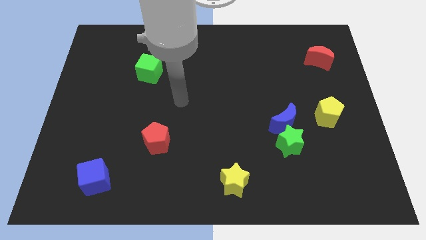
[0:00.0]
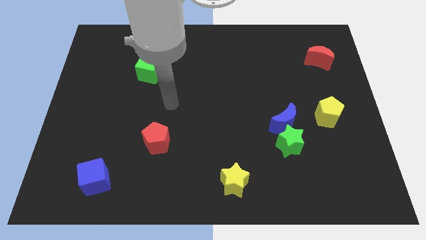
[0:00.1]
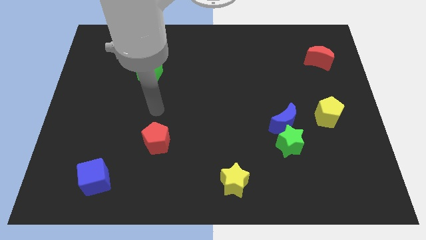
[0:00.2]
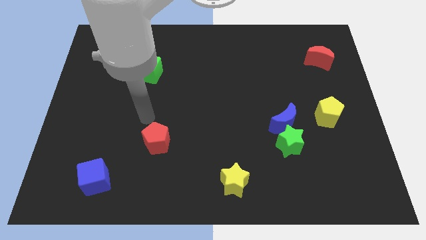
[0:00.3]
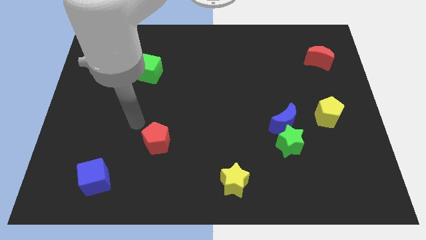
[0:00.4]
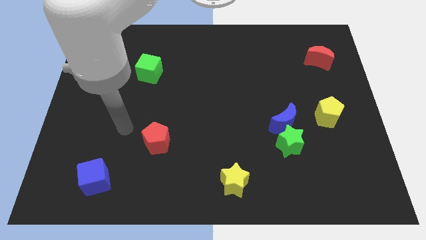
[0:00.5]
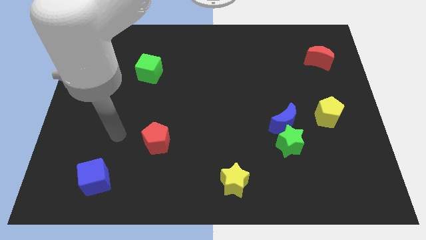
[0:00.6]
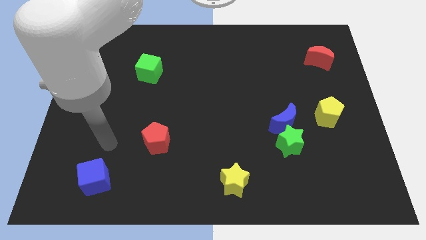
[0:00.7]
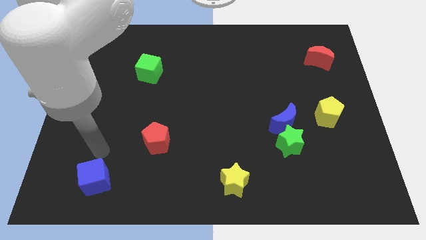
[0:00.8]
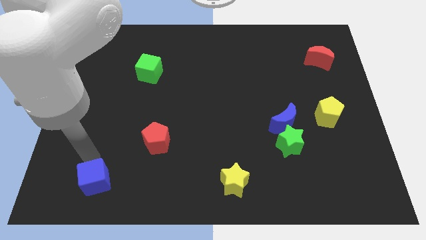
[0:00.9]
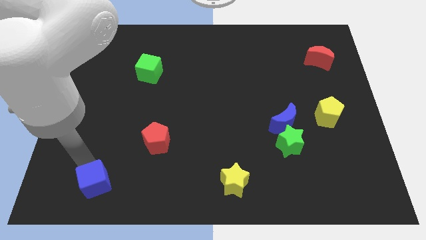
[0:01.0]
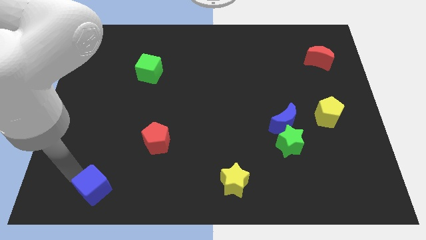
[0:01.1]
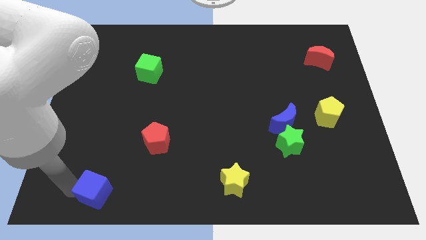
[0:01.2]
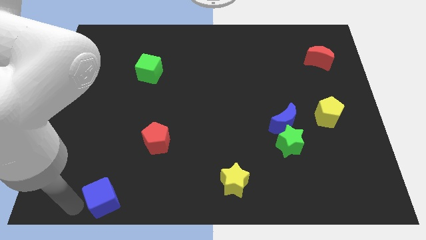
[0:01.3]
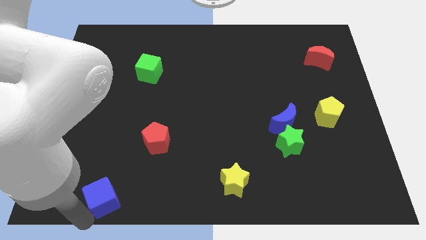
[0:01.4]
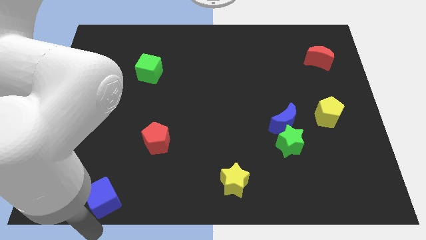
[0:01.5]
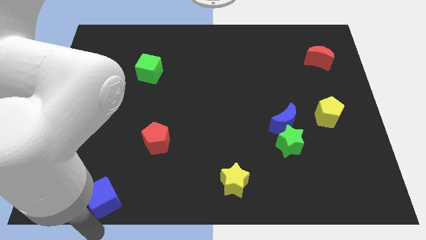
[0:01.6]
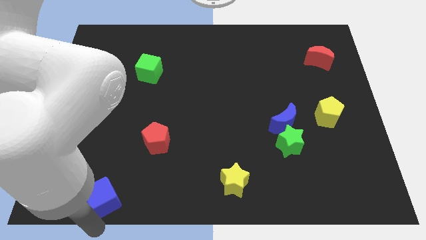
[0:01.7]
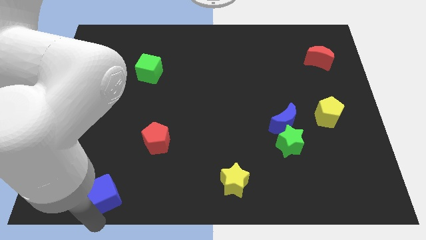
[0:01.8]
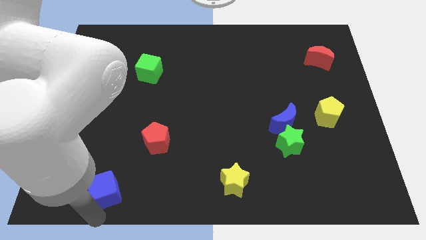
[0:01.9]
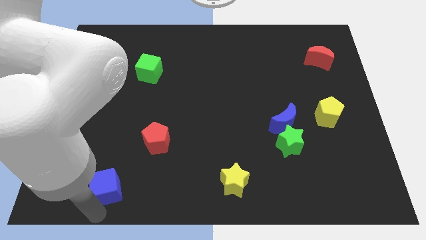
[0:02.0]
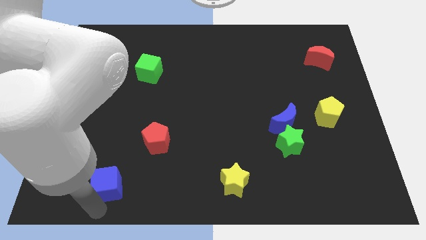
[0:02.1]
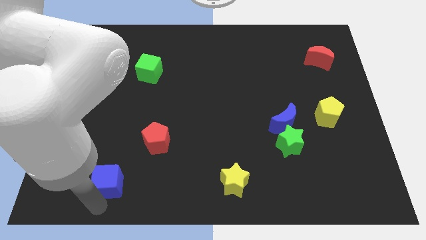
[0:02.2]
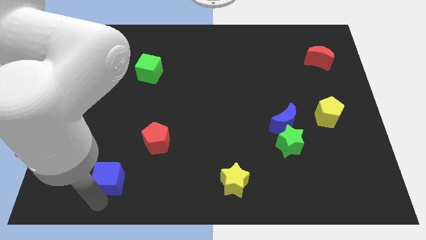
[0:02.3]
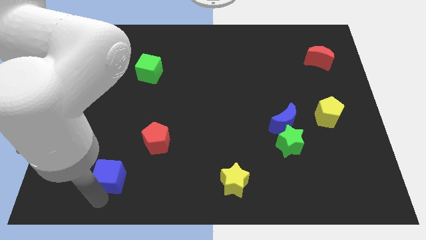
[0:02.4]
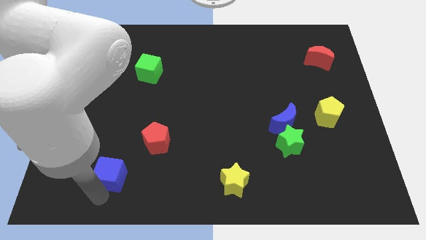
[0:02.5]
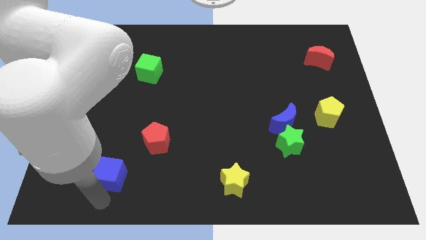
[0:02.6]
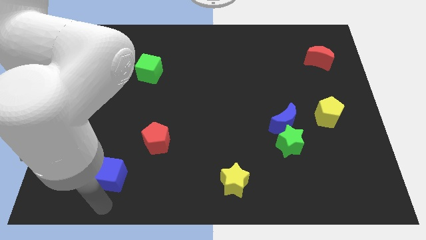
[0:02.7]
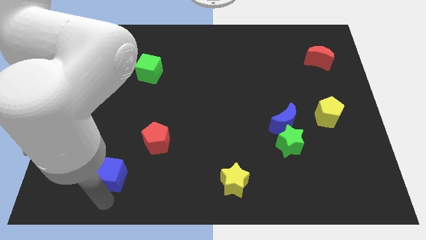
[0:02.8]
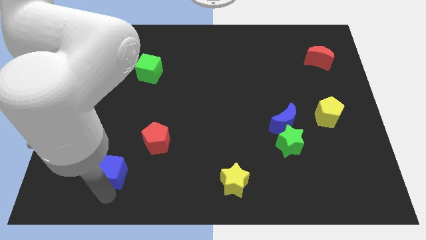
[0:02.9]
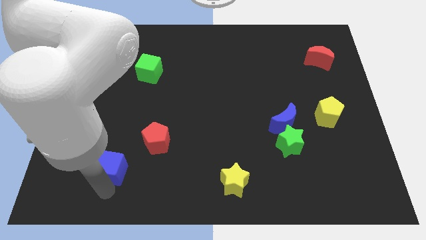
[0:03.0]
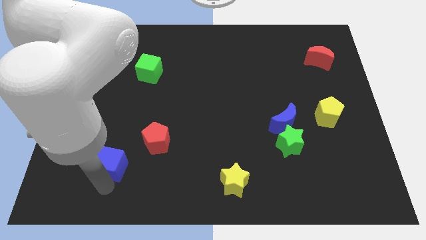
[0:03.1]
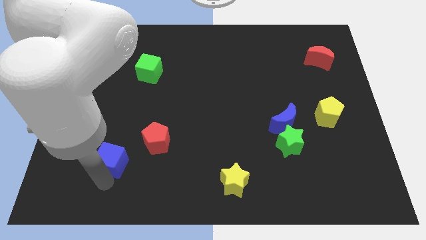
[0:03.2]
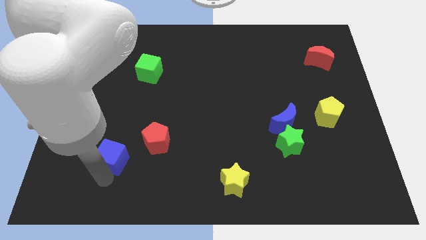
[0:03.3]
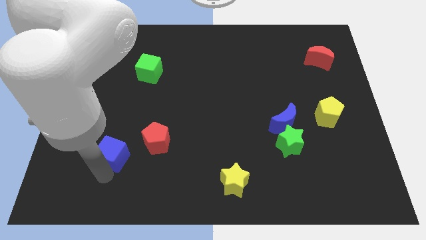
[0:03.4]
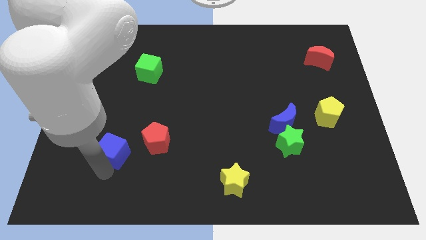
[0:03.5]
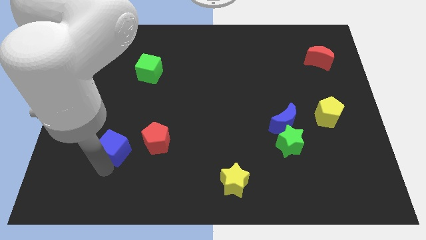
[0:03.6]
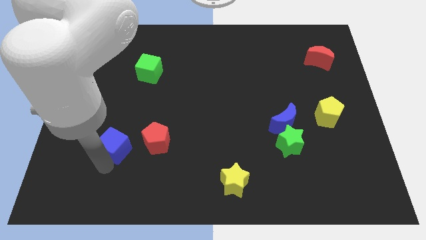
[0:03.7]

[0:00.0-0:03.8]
push the blue cube upwards and to the right somewhat

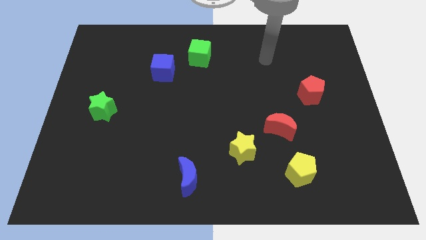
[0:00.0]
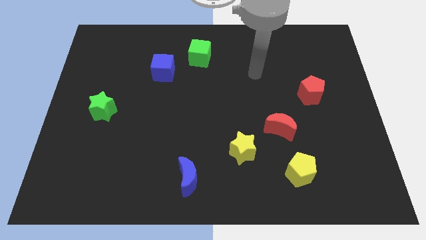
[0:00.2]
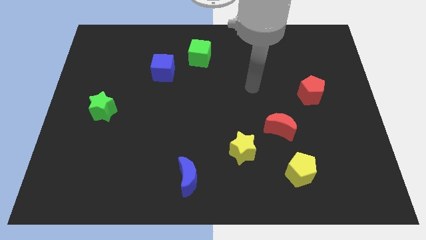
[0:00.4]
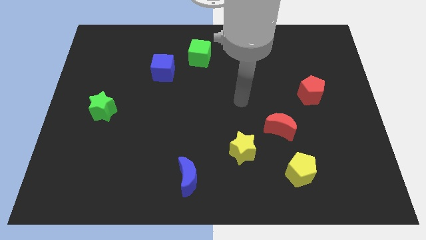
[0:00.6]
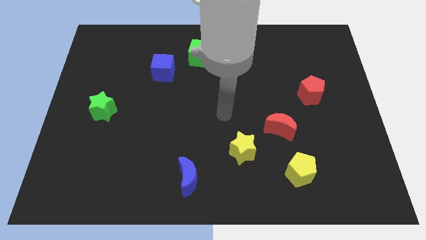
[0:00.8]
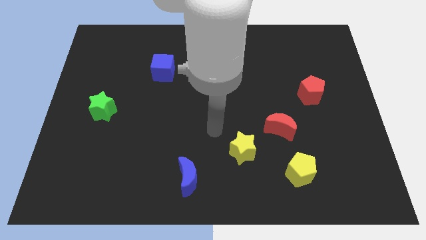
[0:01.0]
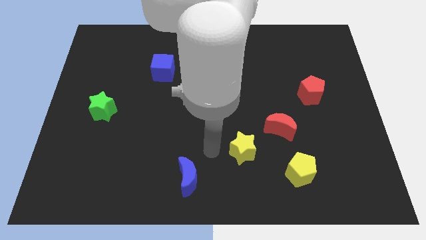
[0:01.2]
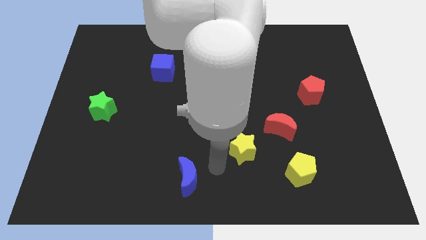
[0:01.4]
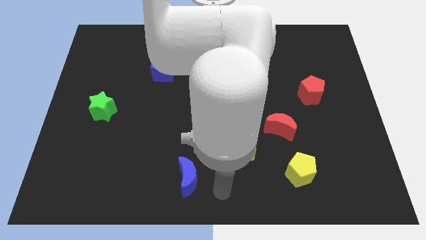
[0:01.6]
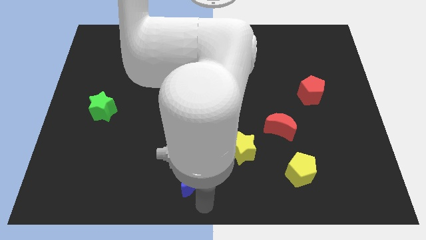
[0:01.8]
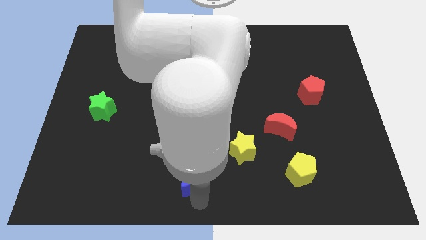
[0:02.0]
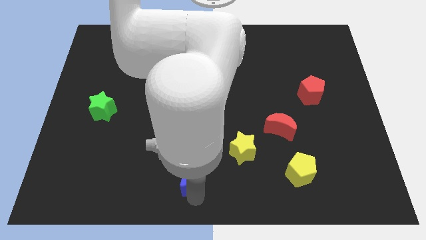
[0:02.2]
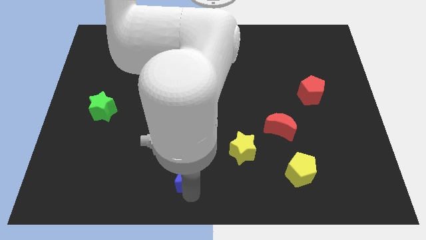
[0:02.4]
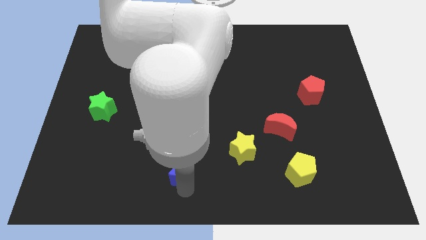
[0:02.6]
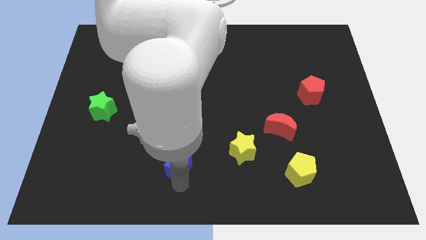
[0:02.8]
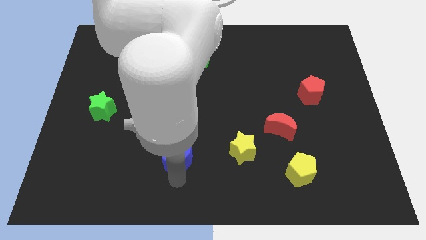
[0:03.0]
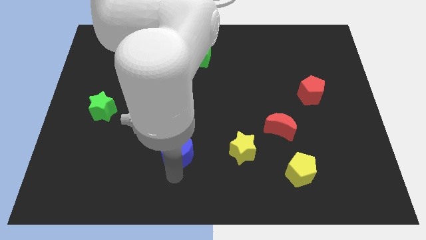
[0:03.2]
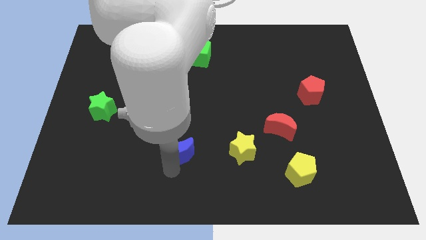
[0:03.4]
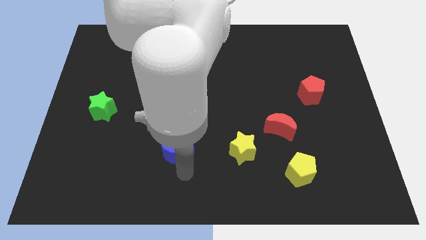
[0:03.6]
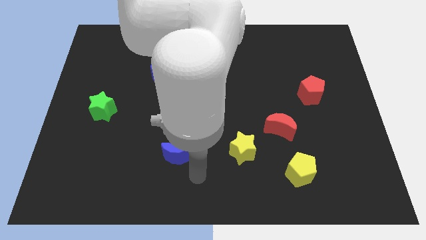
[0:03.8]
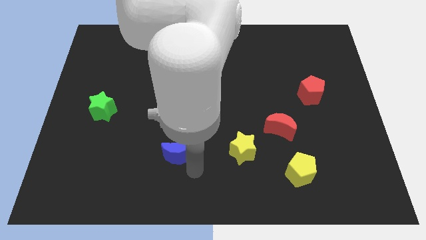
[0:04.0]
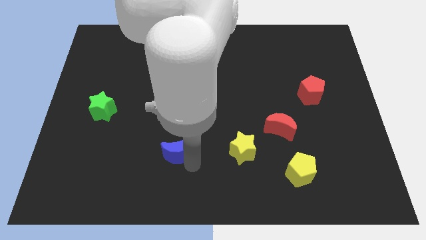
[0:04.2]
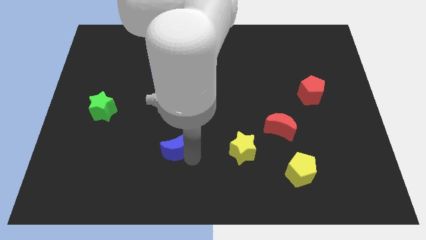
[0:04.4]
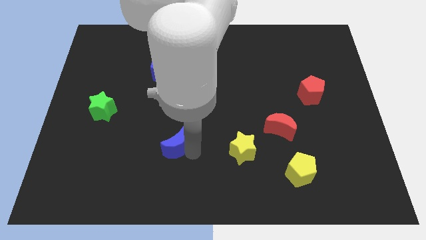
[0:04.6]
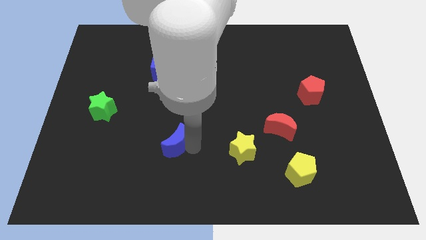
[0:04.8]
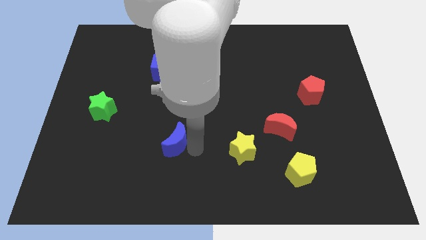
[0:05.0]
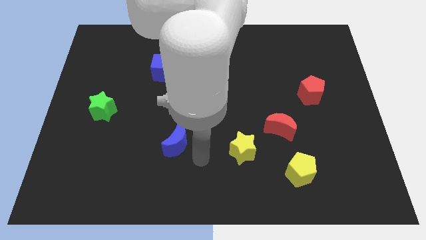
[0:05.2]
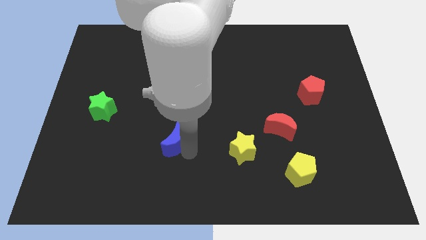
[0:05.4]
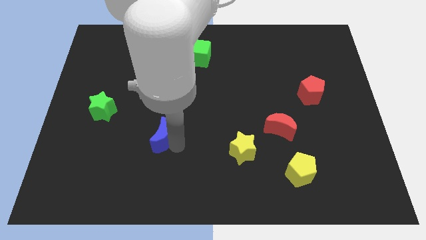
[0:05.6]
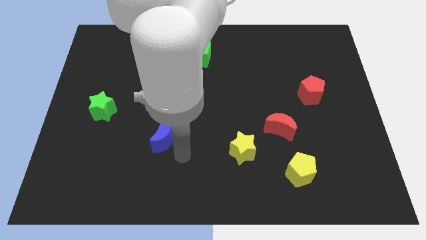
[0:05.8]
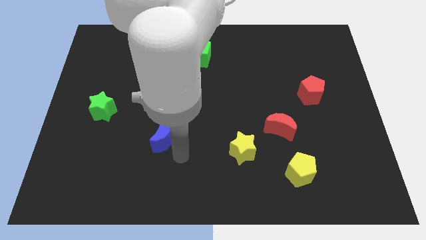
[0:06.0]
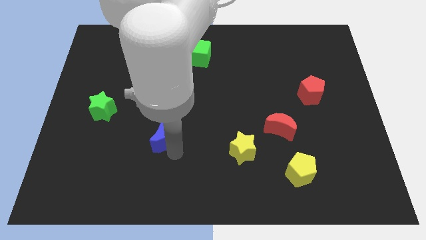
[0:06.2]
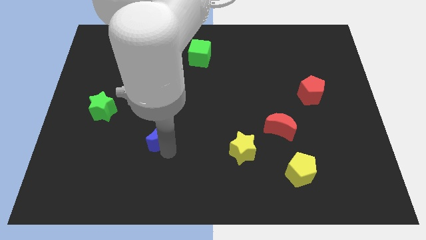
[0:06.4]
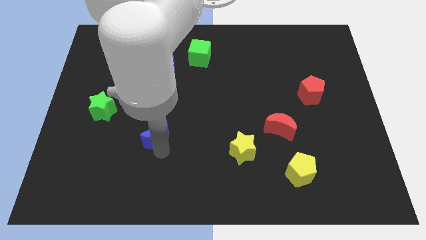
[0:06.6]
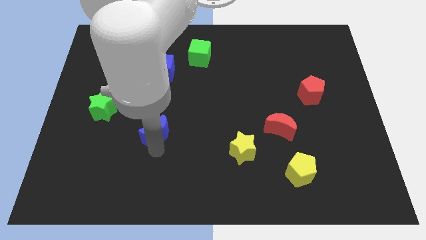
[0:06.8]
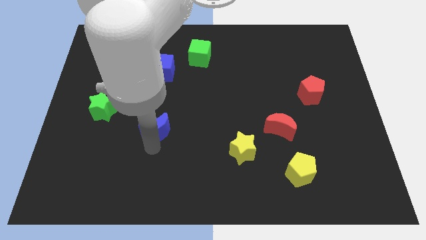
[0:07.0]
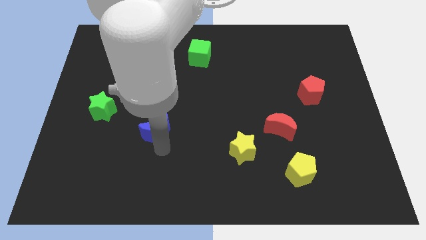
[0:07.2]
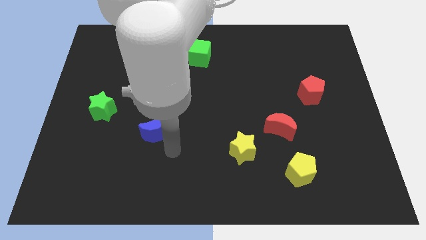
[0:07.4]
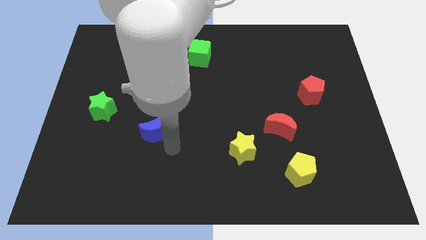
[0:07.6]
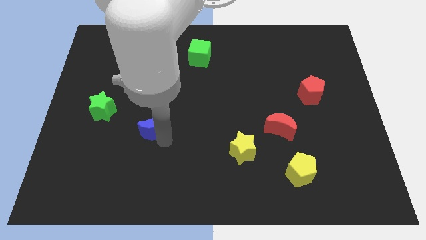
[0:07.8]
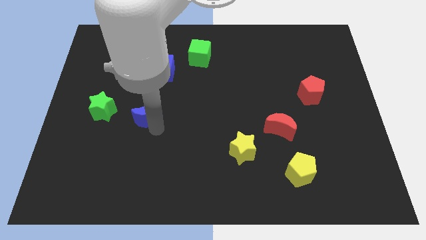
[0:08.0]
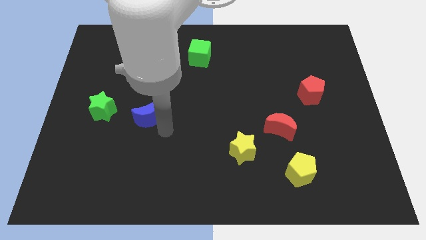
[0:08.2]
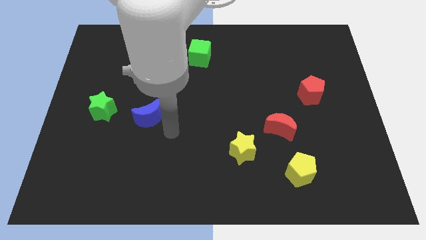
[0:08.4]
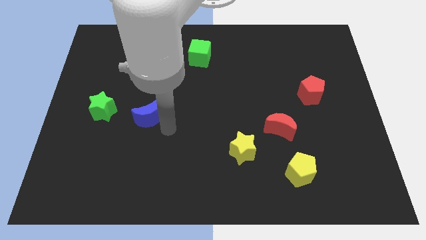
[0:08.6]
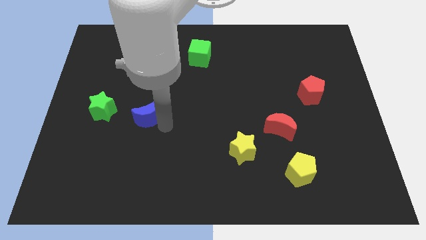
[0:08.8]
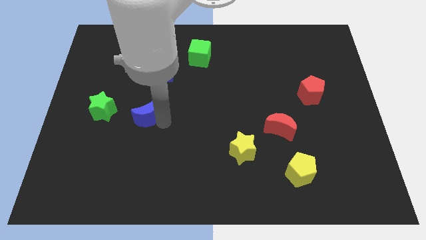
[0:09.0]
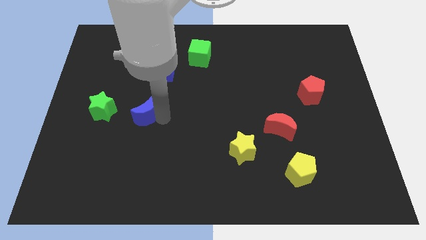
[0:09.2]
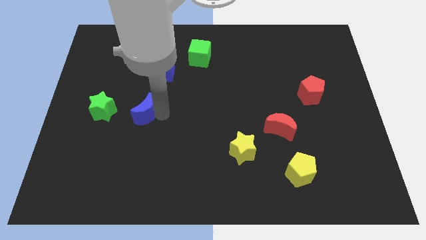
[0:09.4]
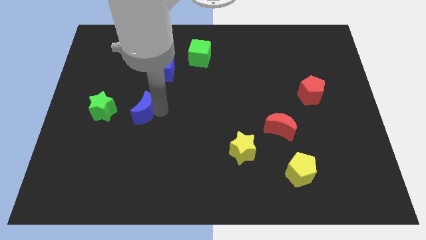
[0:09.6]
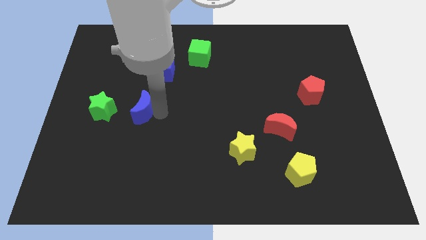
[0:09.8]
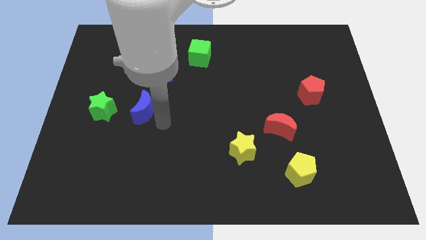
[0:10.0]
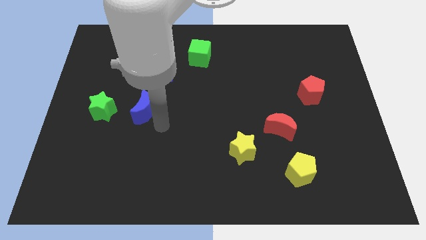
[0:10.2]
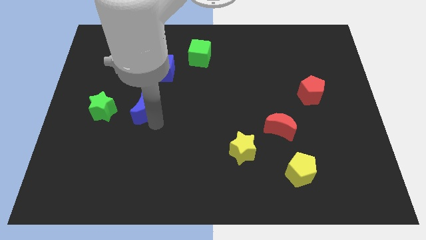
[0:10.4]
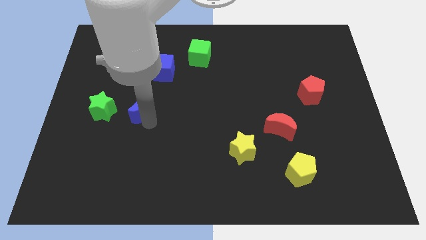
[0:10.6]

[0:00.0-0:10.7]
move the blue moon upwards and to the left diagonally
